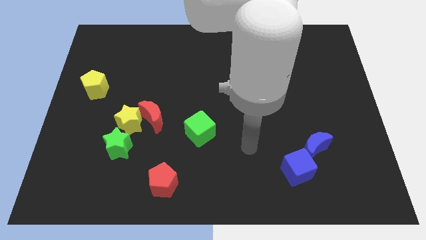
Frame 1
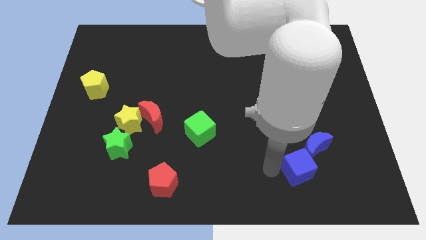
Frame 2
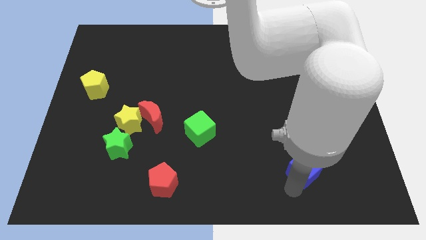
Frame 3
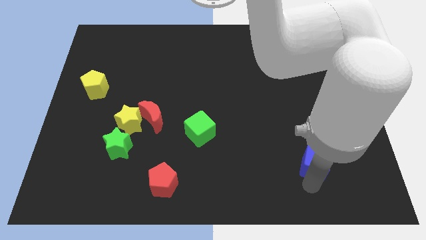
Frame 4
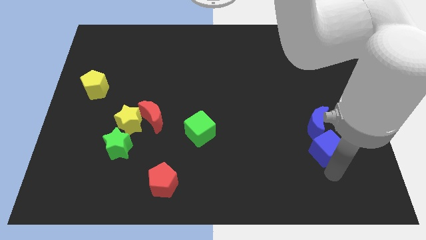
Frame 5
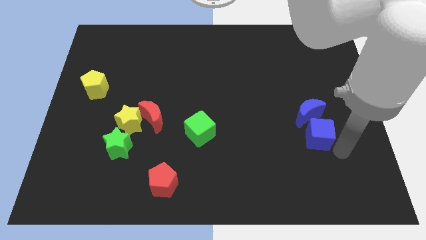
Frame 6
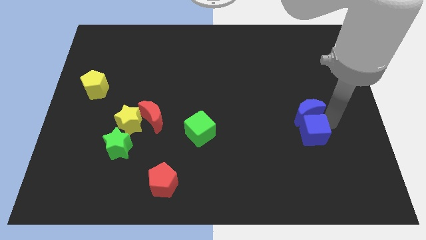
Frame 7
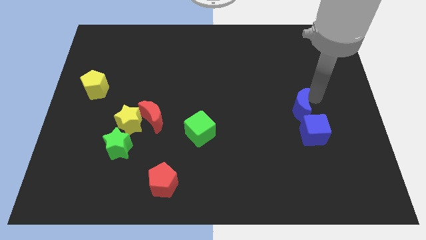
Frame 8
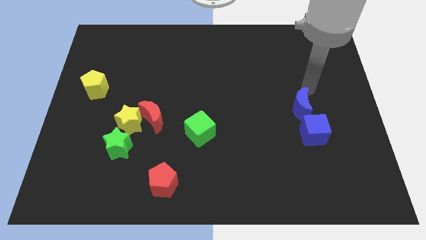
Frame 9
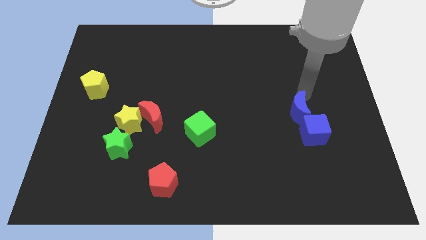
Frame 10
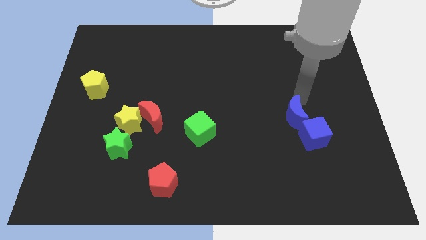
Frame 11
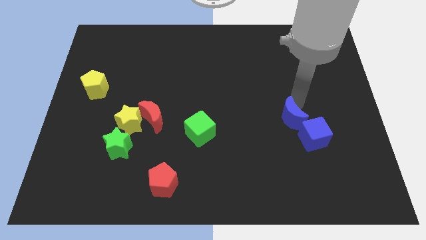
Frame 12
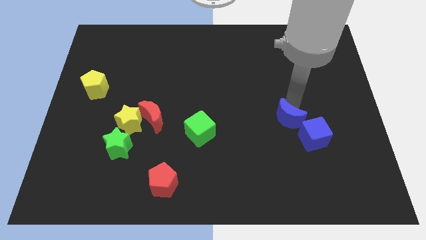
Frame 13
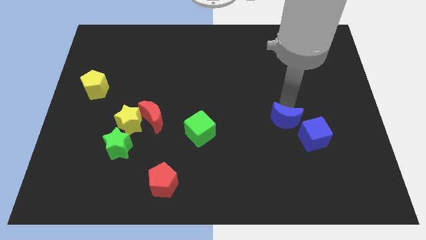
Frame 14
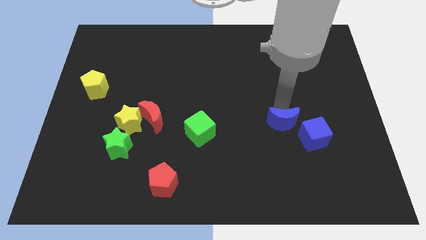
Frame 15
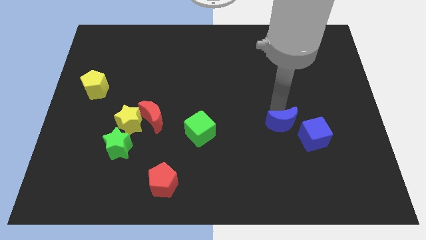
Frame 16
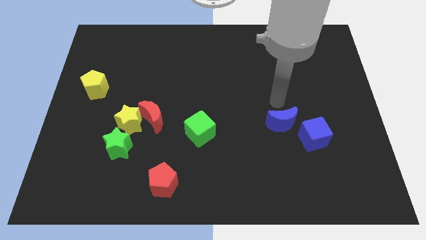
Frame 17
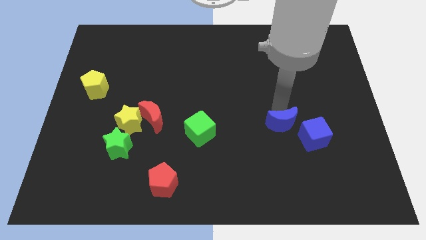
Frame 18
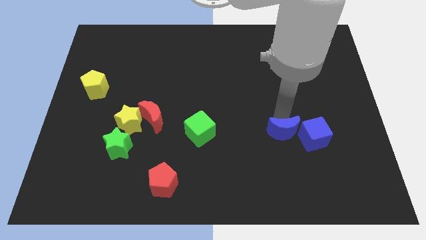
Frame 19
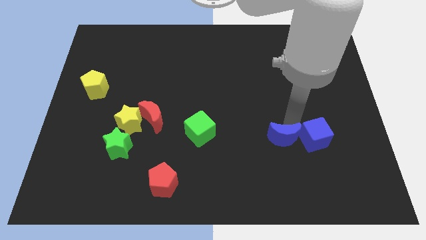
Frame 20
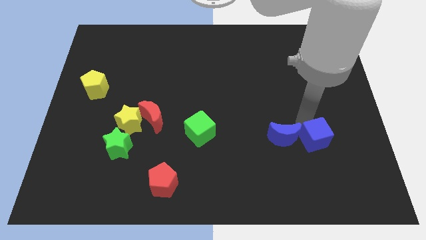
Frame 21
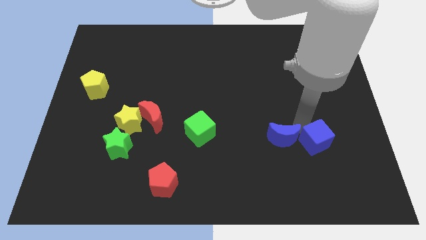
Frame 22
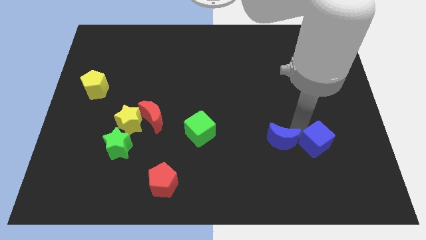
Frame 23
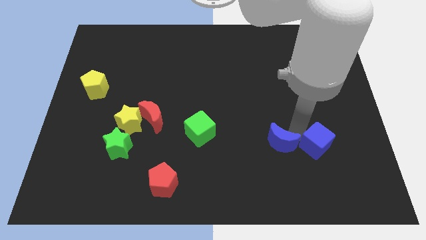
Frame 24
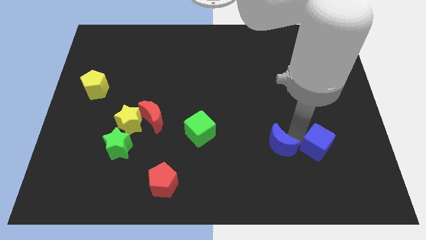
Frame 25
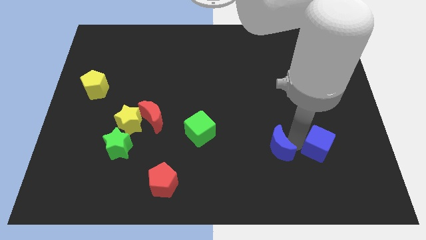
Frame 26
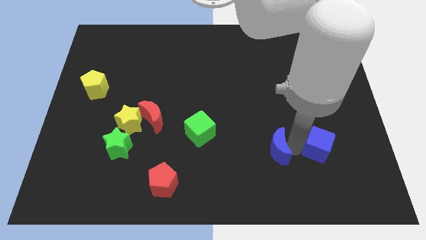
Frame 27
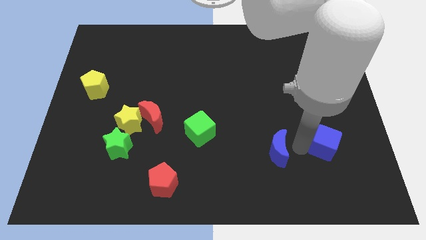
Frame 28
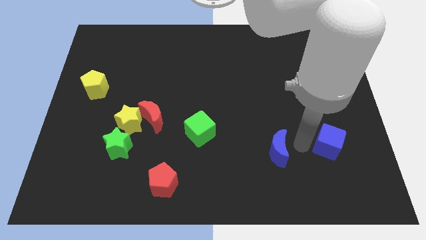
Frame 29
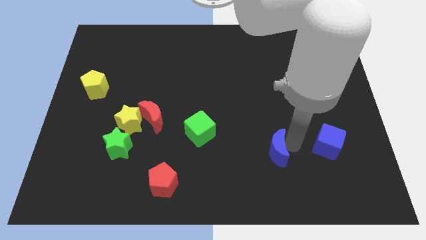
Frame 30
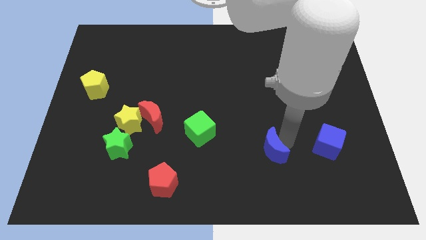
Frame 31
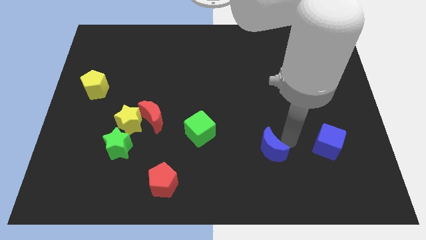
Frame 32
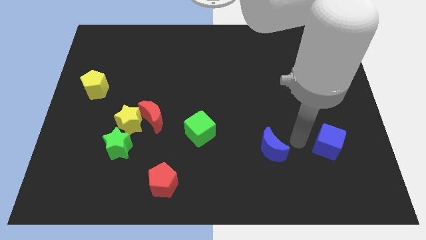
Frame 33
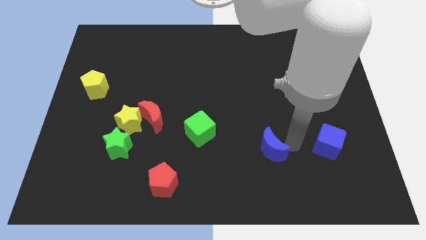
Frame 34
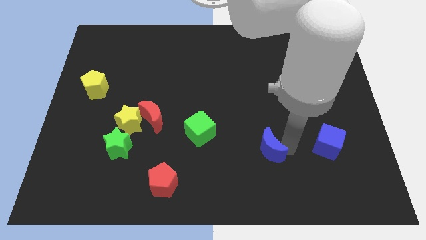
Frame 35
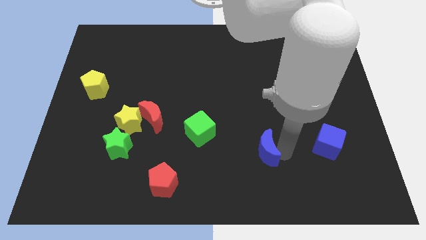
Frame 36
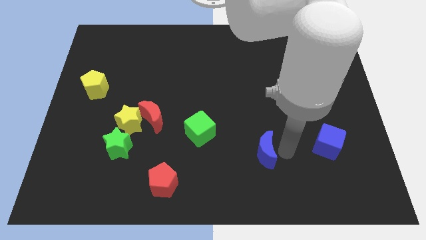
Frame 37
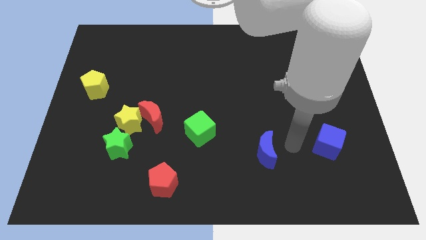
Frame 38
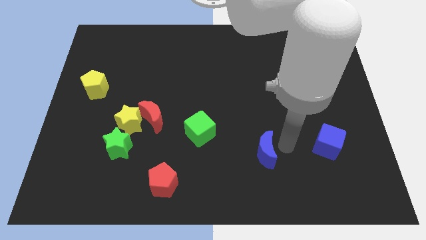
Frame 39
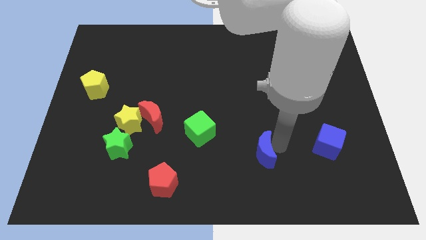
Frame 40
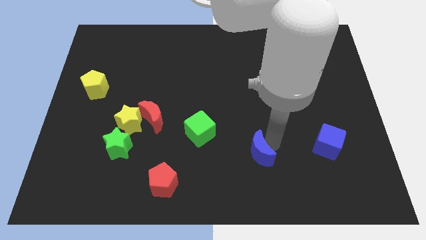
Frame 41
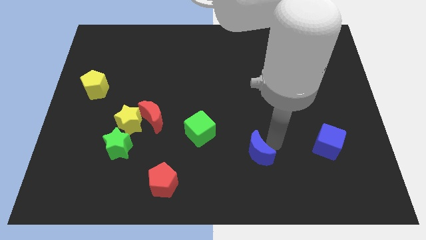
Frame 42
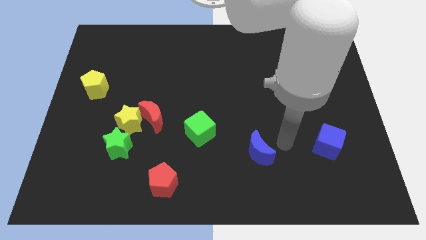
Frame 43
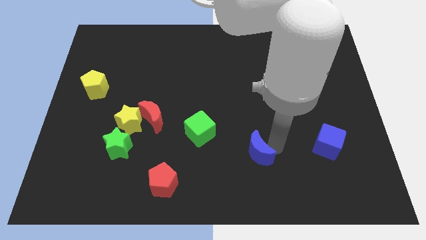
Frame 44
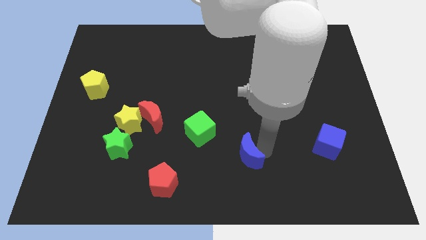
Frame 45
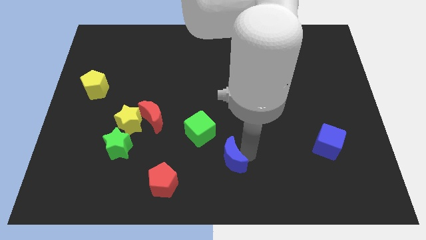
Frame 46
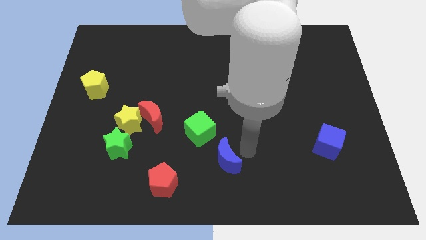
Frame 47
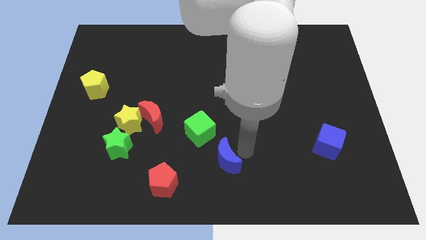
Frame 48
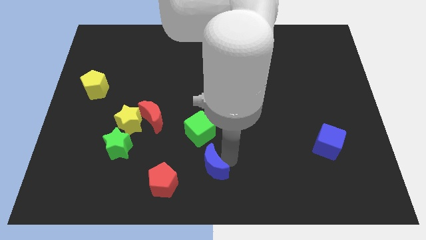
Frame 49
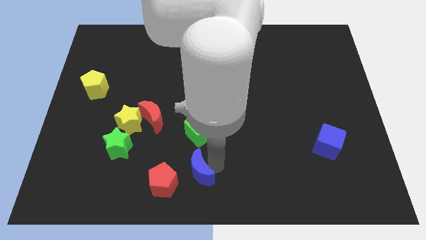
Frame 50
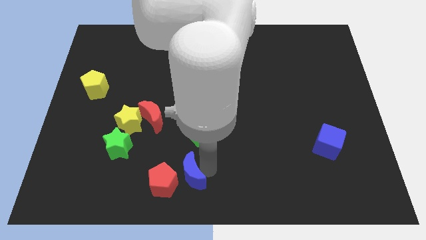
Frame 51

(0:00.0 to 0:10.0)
move the blue moon to the red pentagon

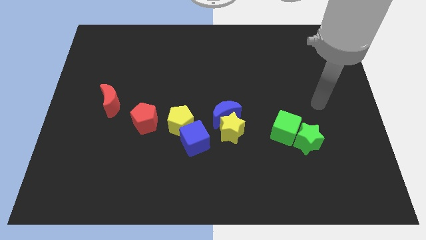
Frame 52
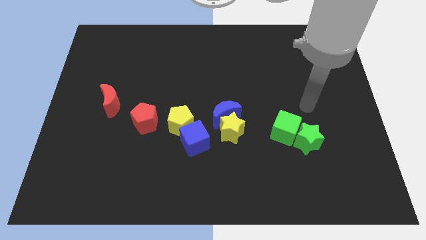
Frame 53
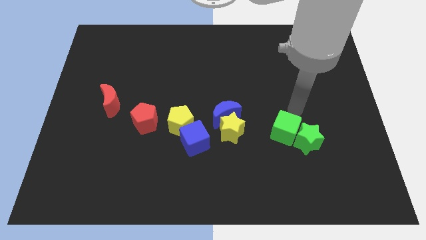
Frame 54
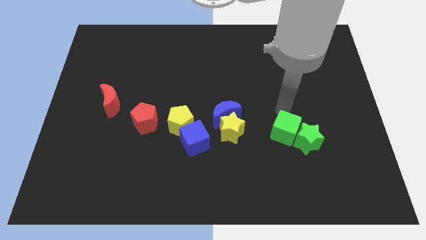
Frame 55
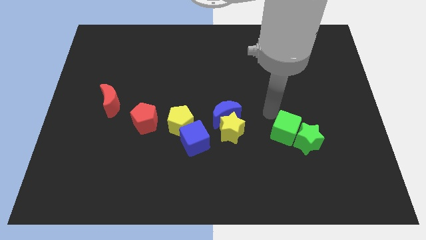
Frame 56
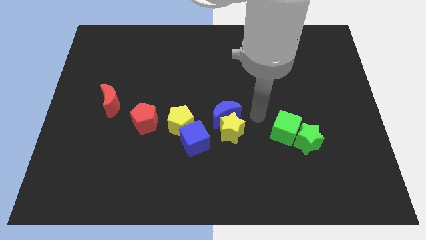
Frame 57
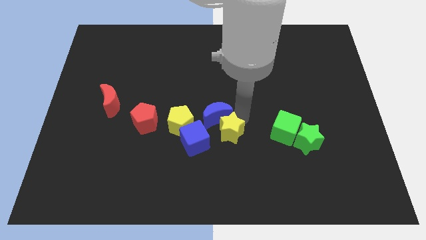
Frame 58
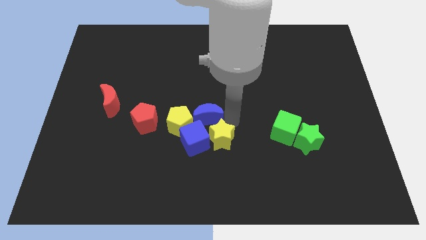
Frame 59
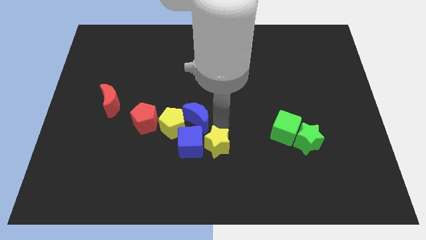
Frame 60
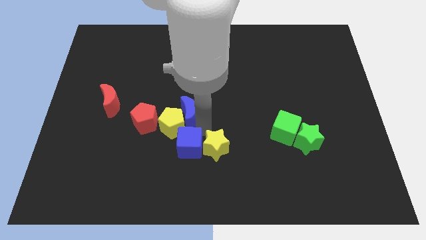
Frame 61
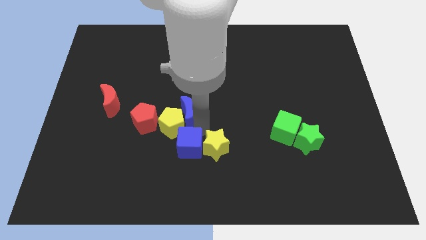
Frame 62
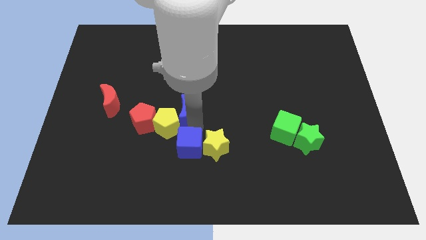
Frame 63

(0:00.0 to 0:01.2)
put the yellow pentagon to the red pentagon

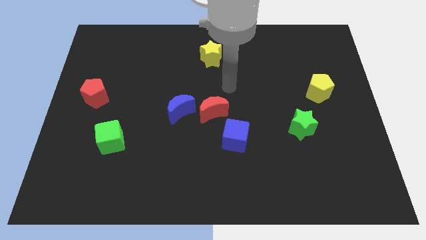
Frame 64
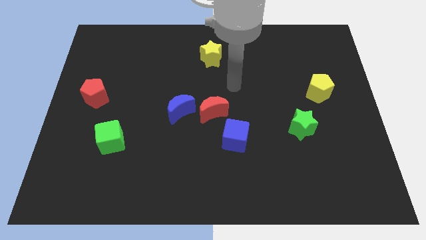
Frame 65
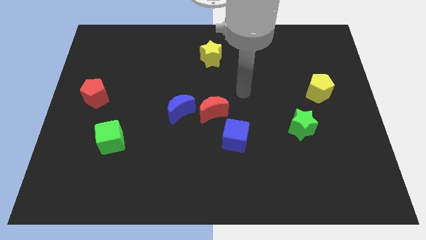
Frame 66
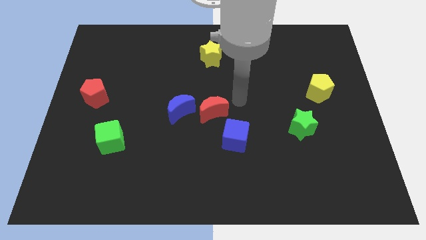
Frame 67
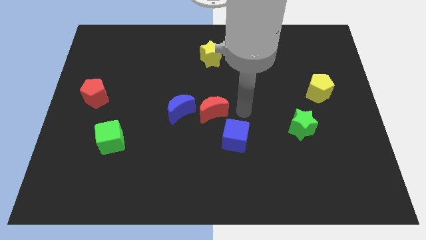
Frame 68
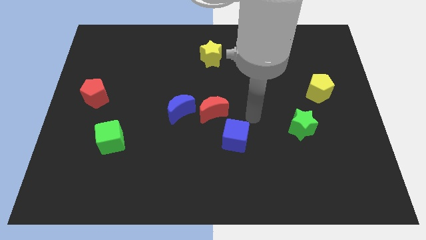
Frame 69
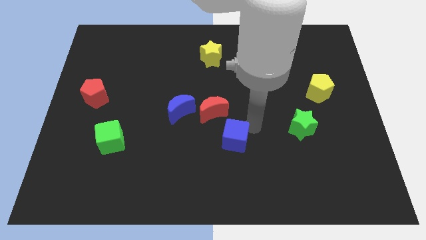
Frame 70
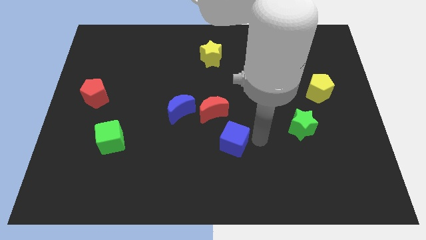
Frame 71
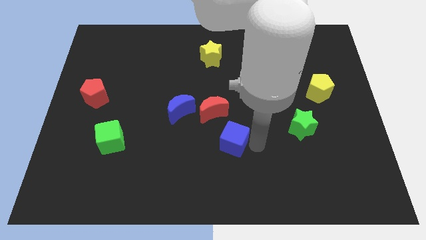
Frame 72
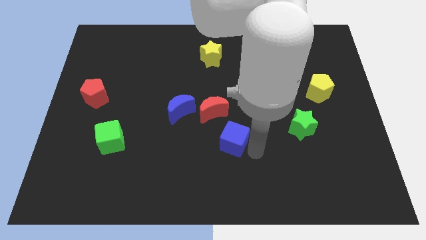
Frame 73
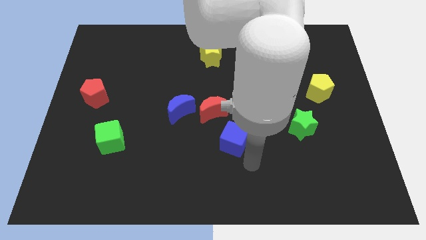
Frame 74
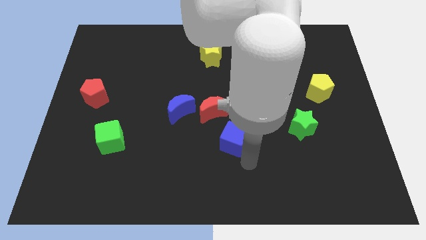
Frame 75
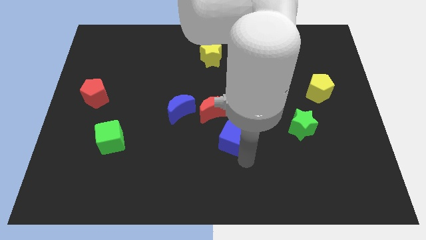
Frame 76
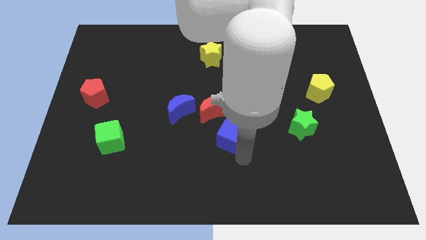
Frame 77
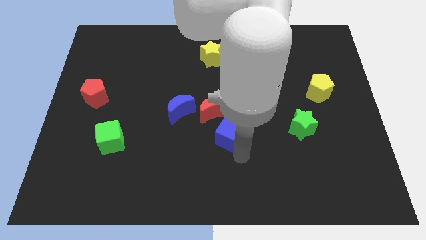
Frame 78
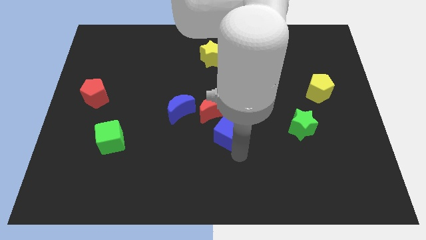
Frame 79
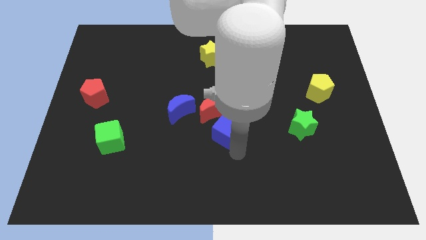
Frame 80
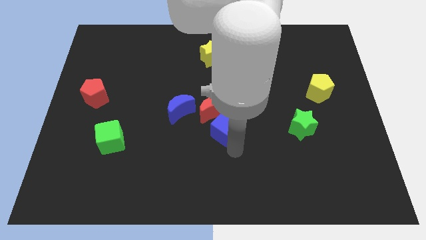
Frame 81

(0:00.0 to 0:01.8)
push the blue cube towards the red moon
